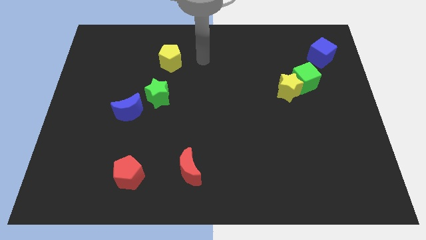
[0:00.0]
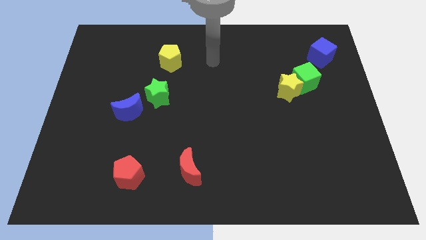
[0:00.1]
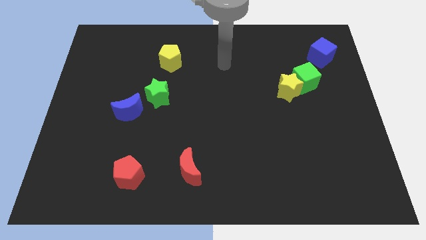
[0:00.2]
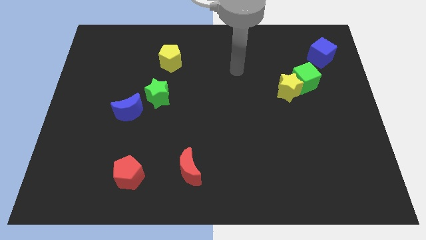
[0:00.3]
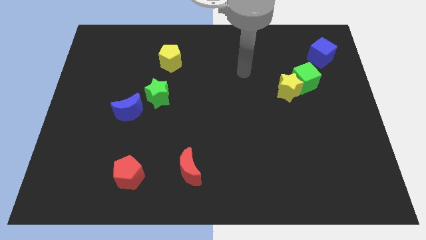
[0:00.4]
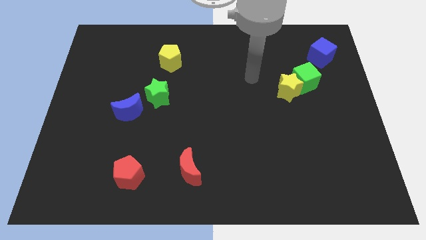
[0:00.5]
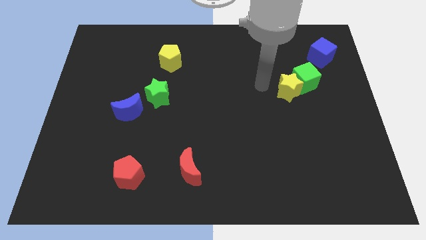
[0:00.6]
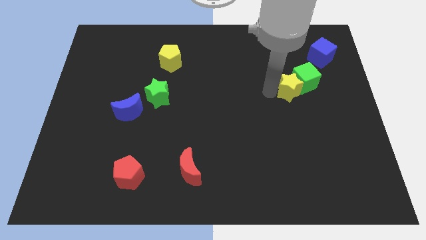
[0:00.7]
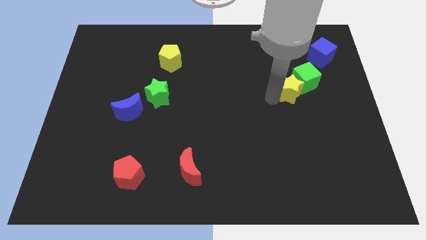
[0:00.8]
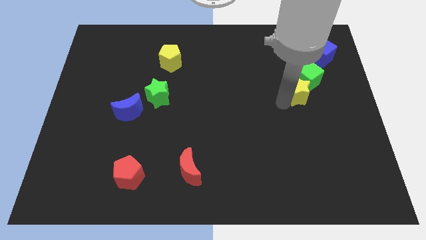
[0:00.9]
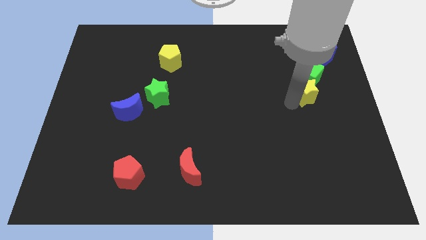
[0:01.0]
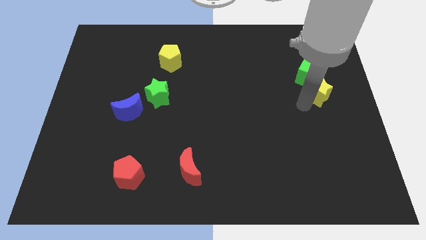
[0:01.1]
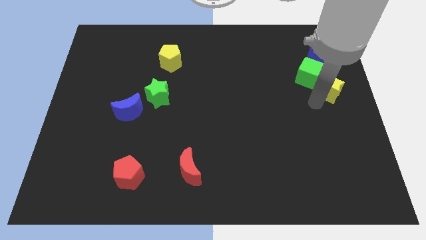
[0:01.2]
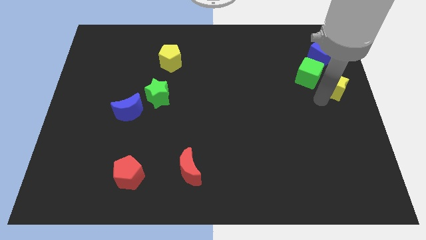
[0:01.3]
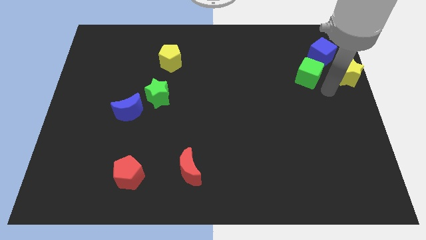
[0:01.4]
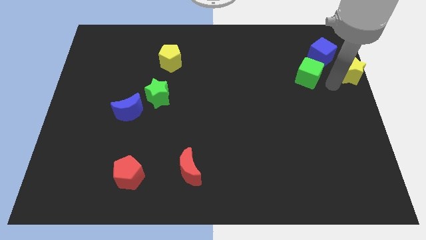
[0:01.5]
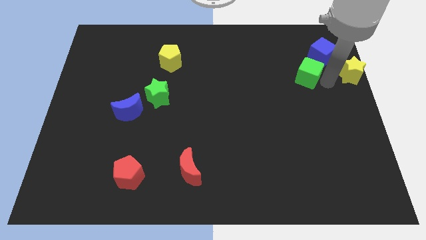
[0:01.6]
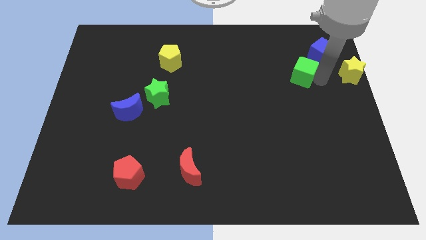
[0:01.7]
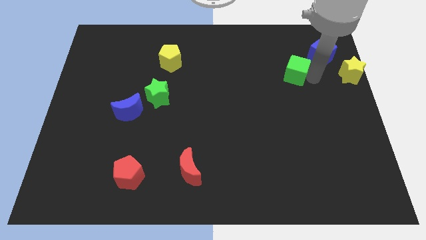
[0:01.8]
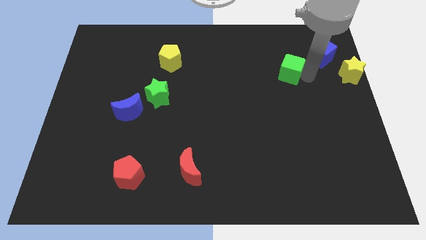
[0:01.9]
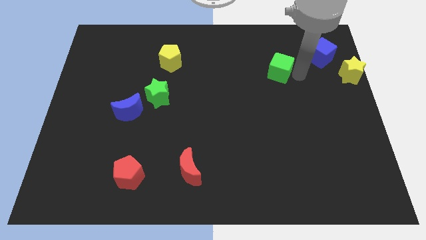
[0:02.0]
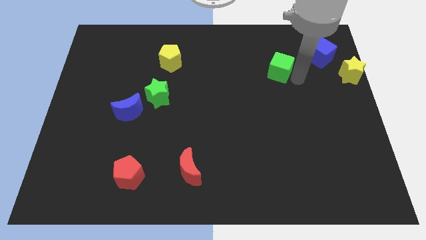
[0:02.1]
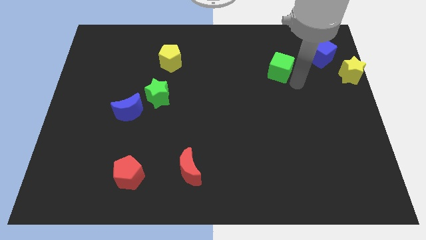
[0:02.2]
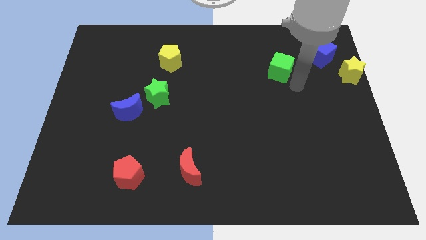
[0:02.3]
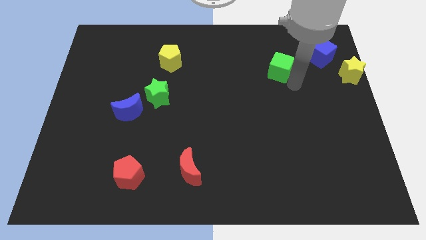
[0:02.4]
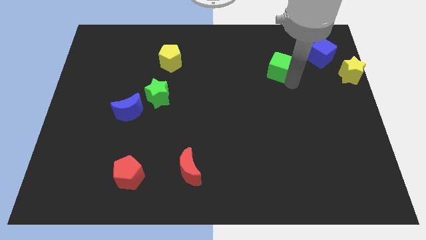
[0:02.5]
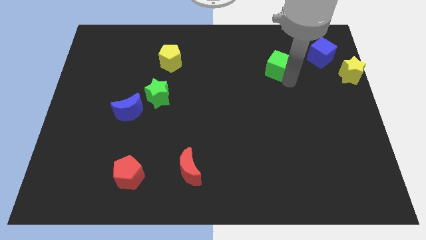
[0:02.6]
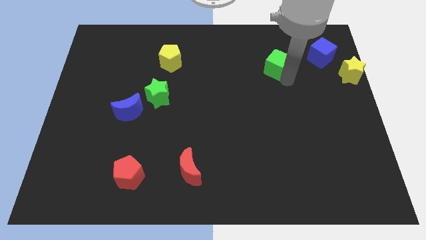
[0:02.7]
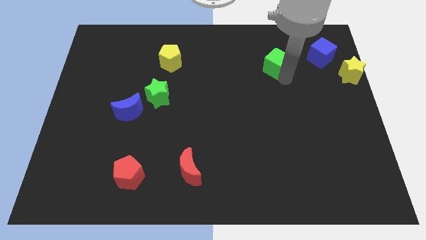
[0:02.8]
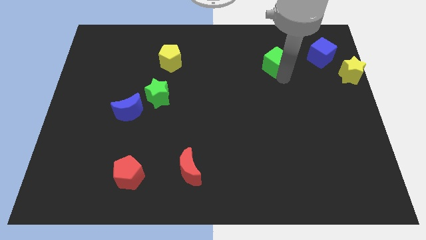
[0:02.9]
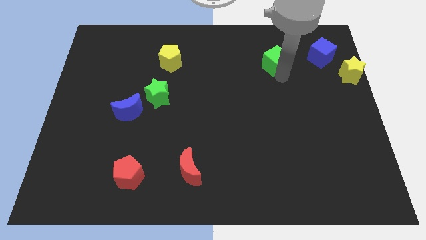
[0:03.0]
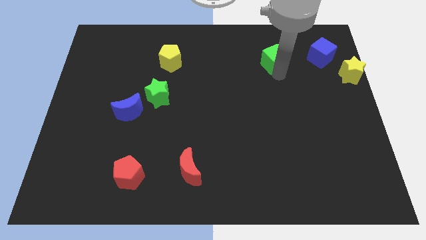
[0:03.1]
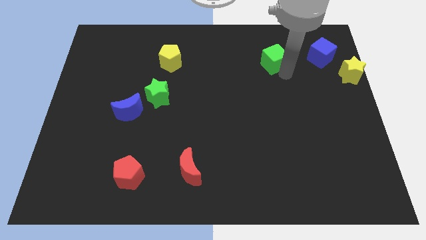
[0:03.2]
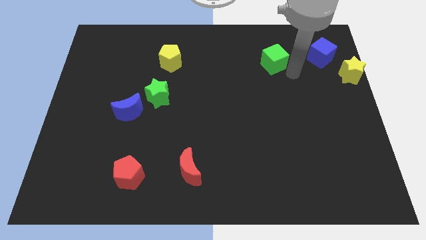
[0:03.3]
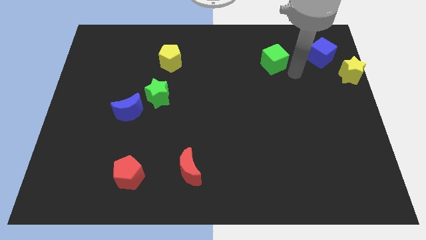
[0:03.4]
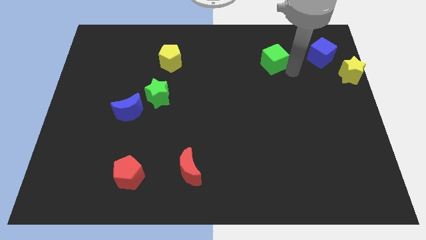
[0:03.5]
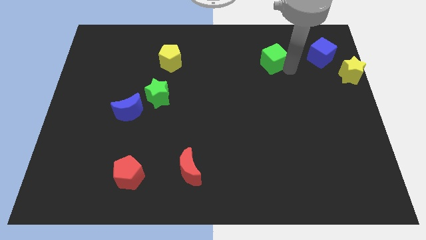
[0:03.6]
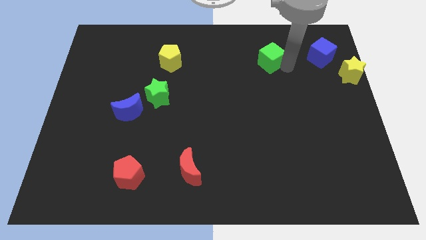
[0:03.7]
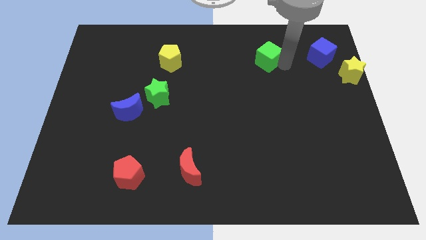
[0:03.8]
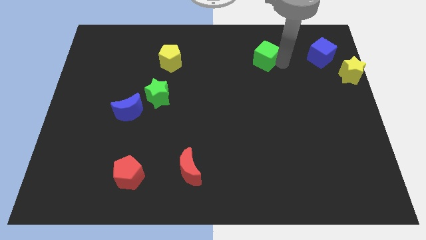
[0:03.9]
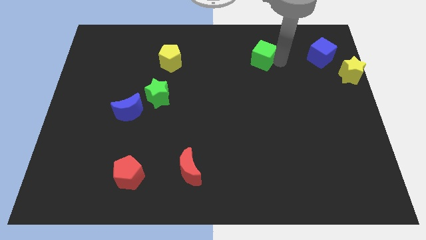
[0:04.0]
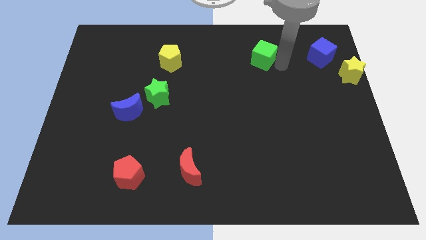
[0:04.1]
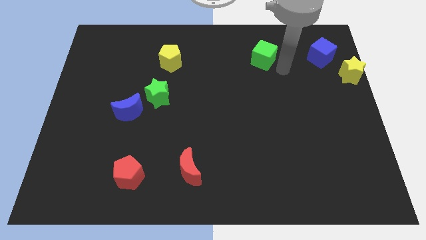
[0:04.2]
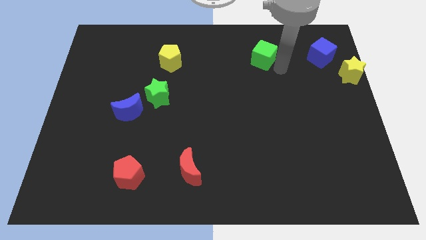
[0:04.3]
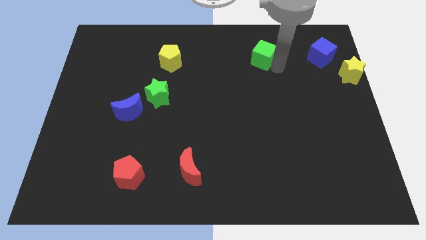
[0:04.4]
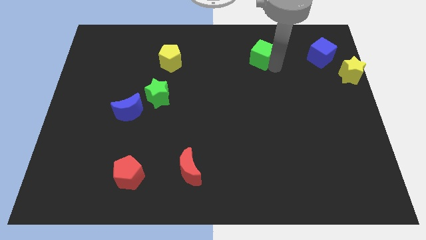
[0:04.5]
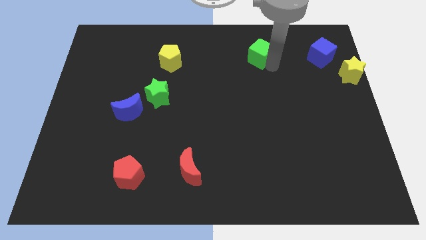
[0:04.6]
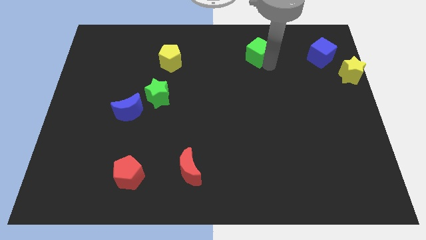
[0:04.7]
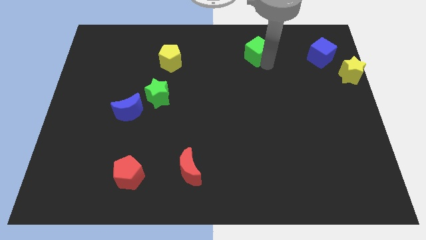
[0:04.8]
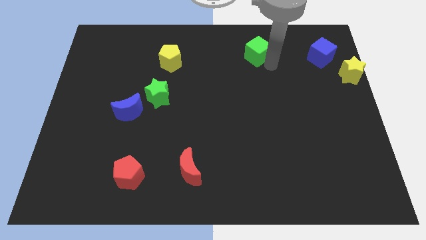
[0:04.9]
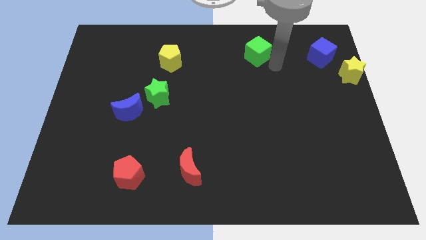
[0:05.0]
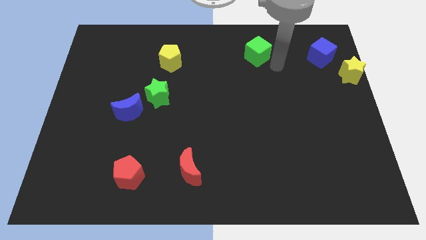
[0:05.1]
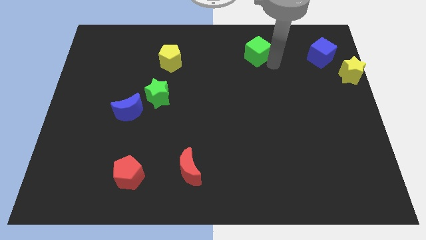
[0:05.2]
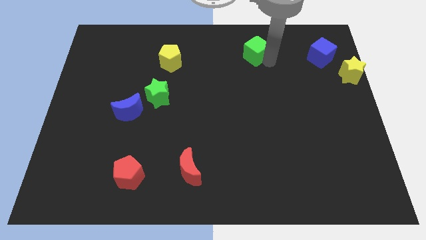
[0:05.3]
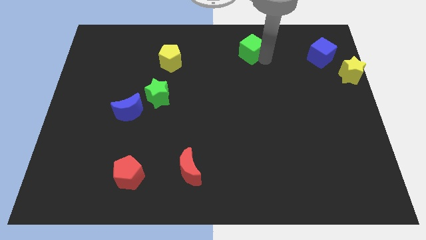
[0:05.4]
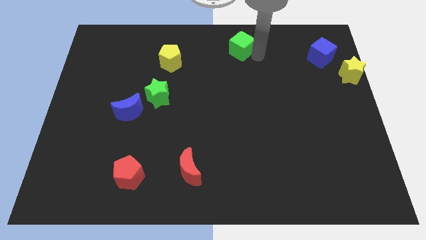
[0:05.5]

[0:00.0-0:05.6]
move the green cube to the top

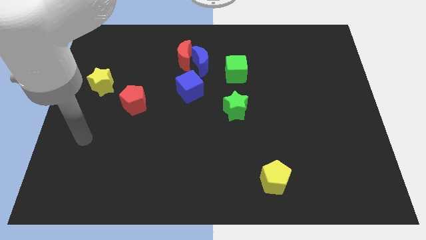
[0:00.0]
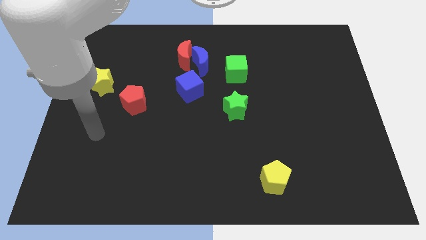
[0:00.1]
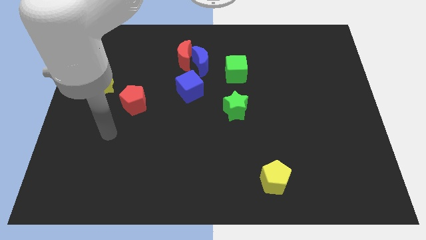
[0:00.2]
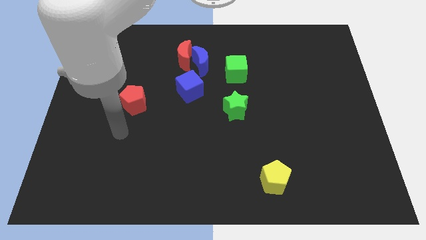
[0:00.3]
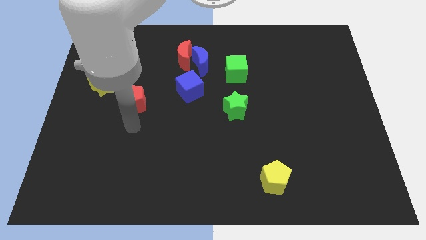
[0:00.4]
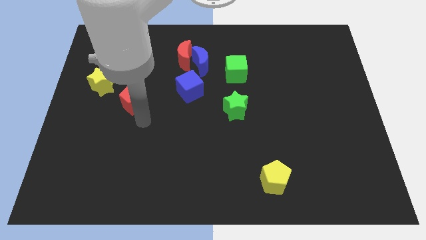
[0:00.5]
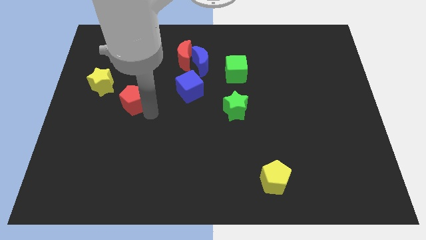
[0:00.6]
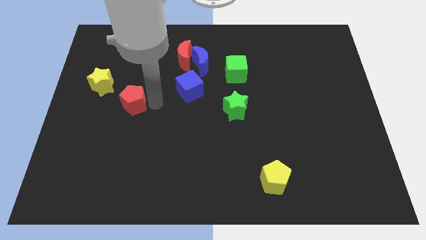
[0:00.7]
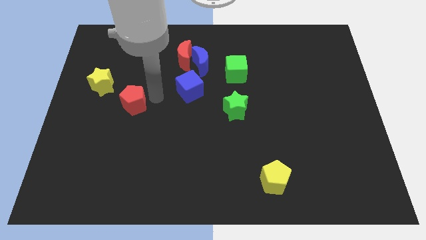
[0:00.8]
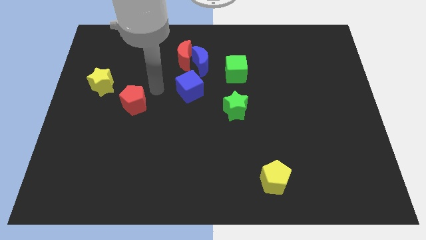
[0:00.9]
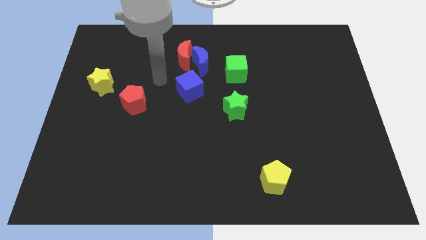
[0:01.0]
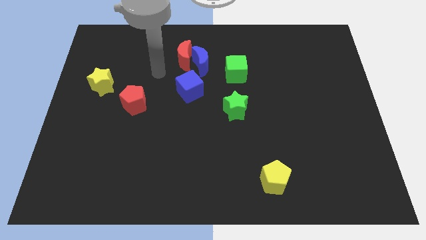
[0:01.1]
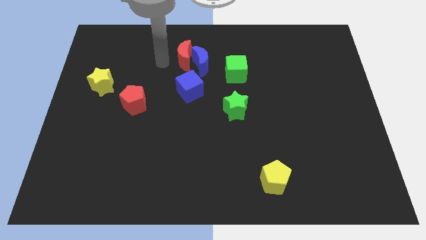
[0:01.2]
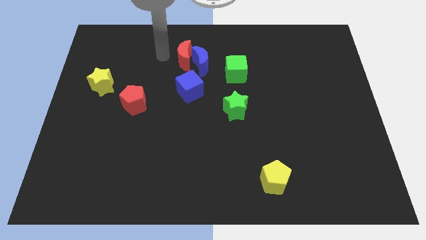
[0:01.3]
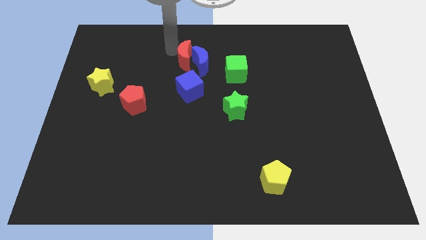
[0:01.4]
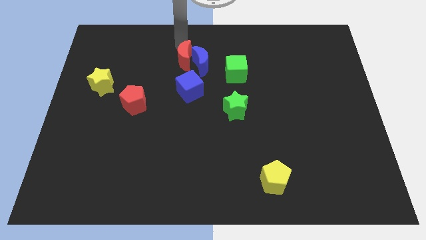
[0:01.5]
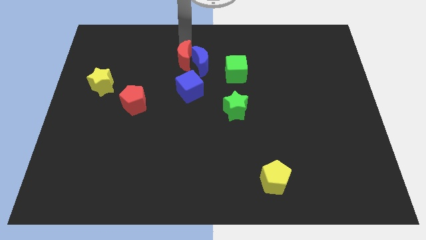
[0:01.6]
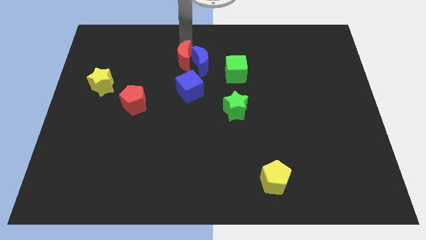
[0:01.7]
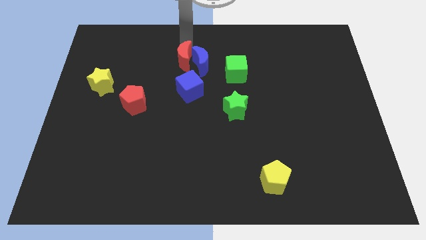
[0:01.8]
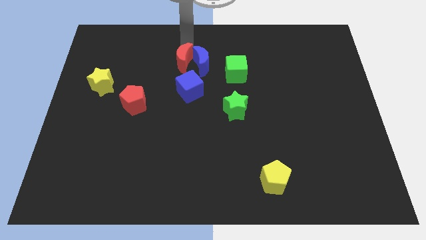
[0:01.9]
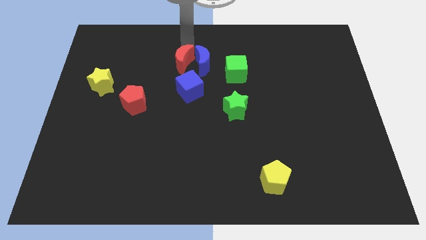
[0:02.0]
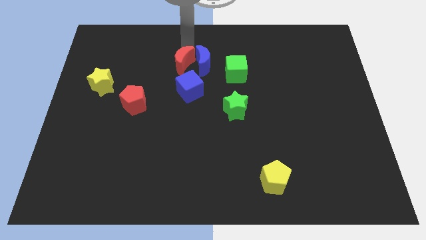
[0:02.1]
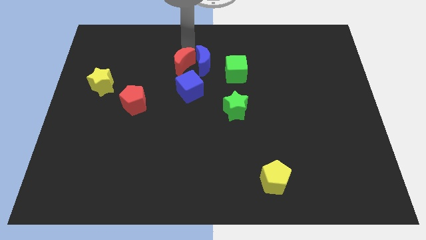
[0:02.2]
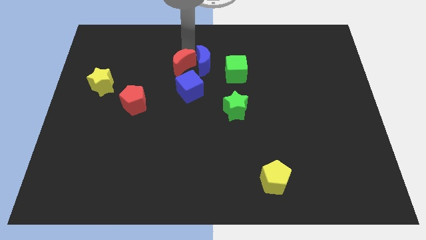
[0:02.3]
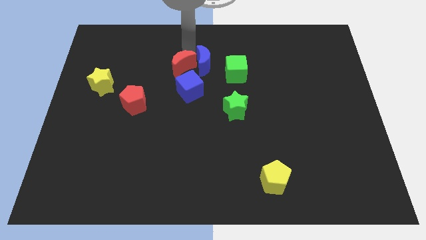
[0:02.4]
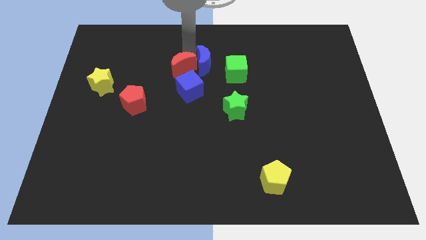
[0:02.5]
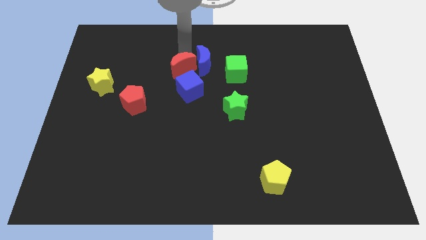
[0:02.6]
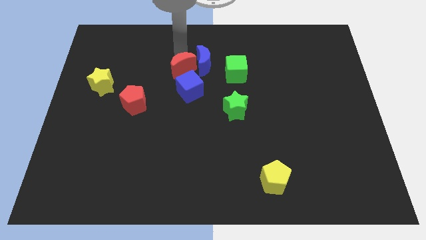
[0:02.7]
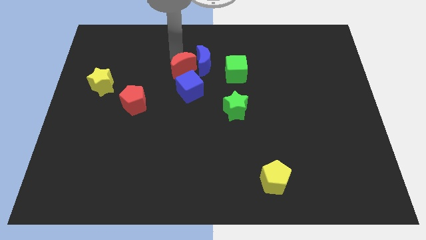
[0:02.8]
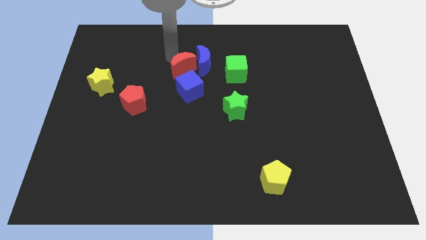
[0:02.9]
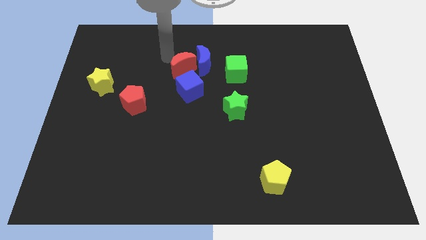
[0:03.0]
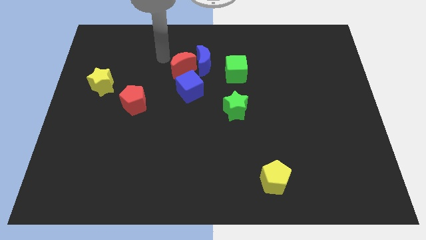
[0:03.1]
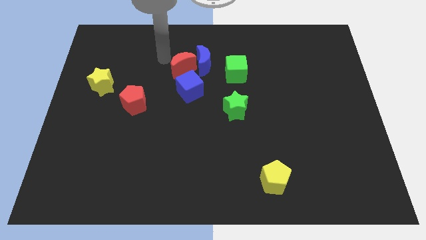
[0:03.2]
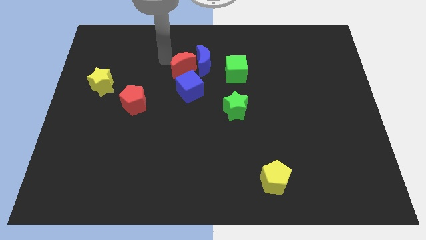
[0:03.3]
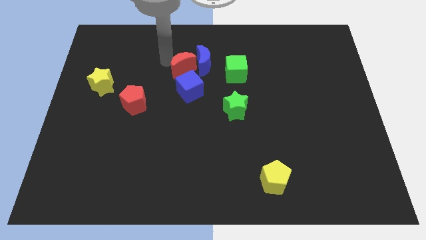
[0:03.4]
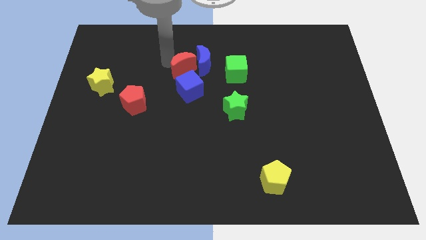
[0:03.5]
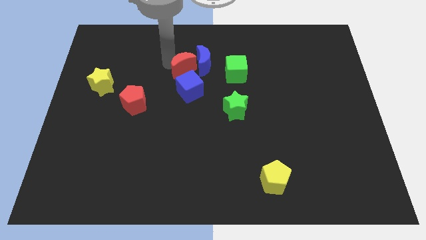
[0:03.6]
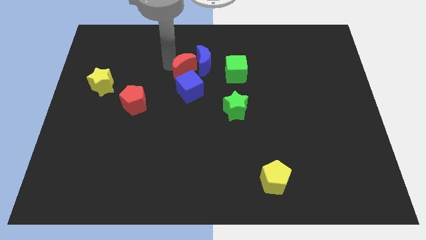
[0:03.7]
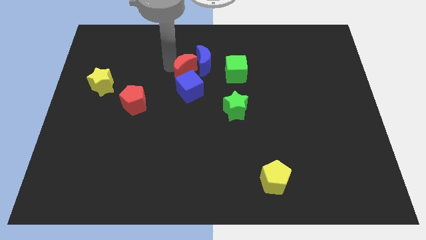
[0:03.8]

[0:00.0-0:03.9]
put the red moon to the center
